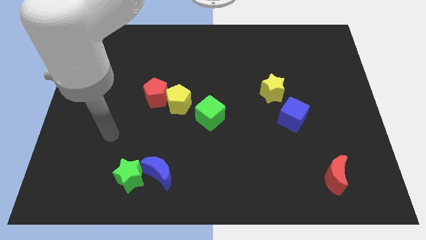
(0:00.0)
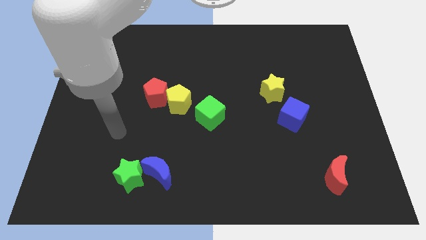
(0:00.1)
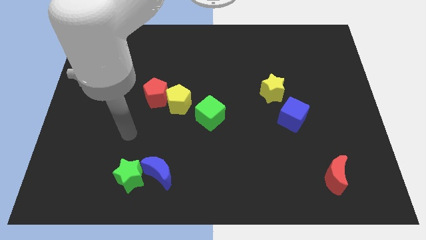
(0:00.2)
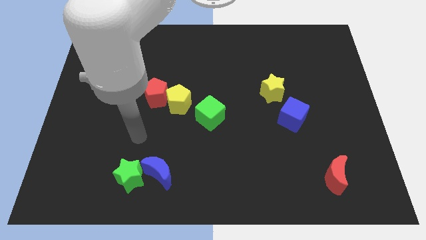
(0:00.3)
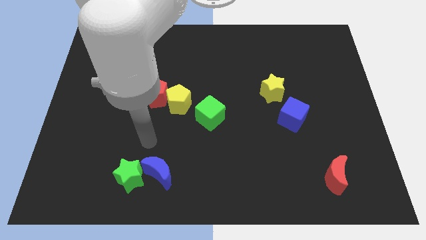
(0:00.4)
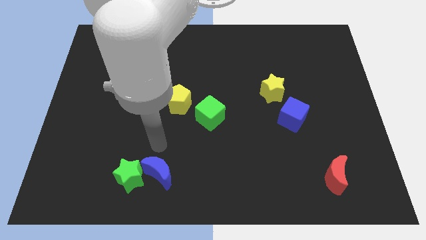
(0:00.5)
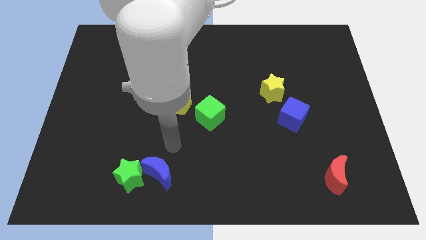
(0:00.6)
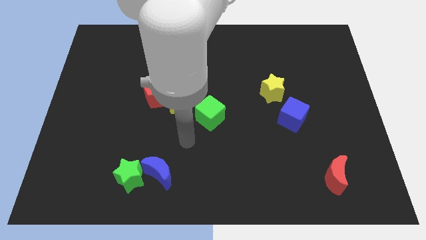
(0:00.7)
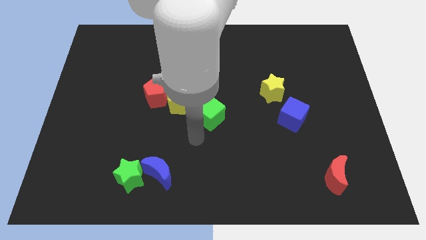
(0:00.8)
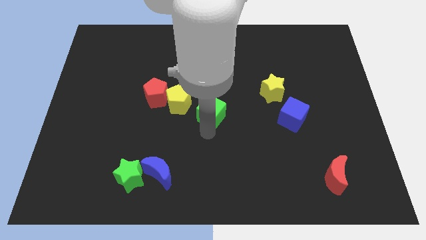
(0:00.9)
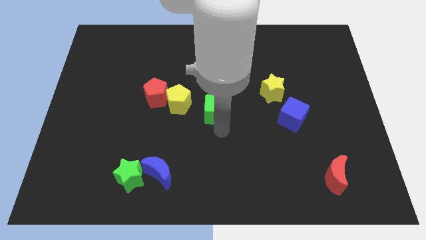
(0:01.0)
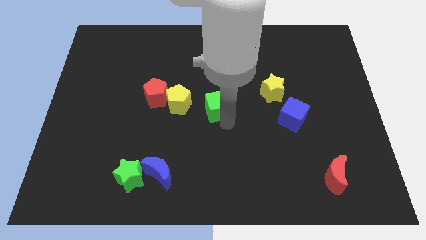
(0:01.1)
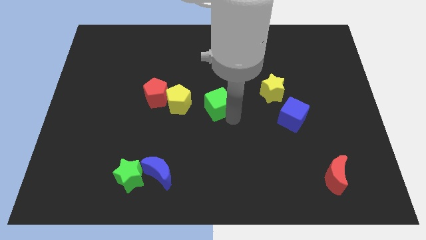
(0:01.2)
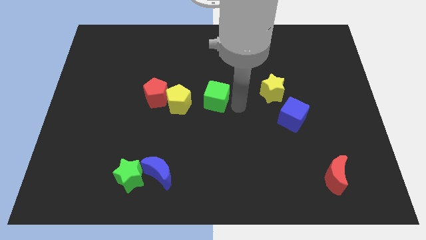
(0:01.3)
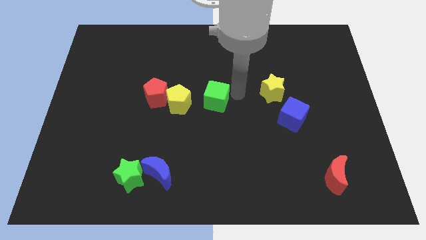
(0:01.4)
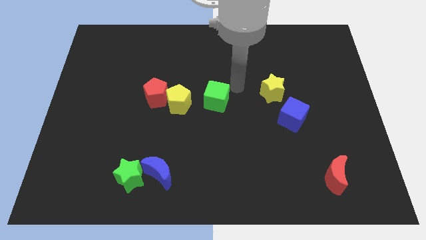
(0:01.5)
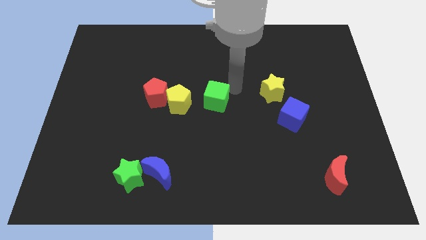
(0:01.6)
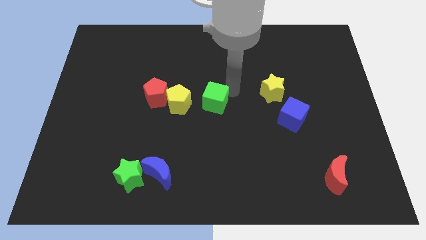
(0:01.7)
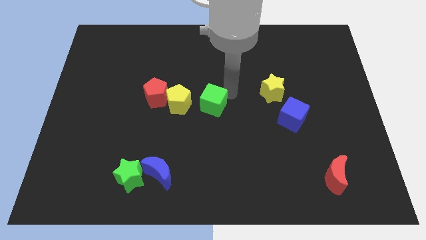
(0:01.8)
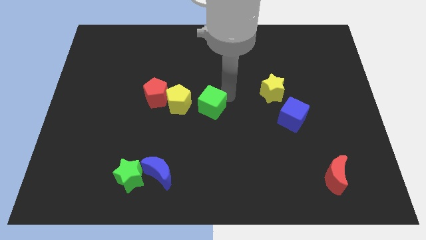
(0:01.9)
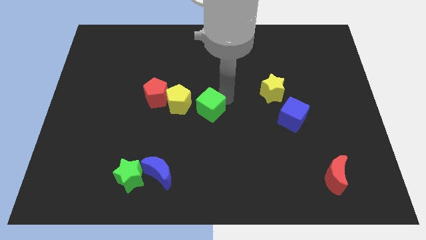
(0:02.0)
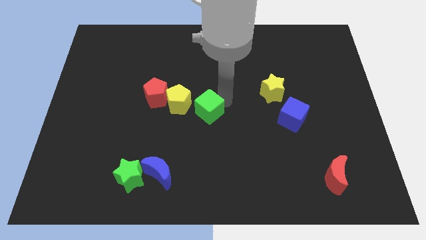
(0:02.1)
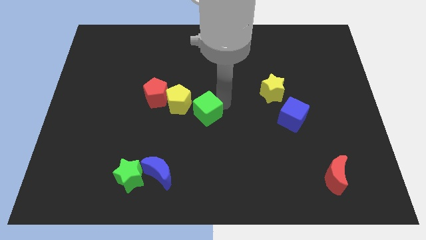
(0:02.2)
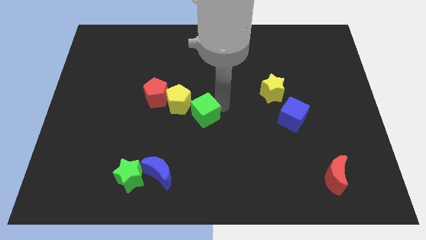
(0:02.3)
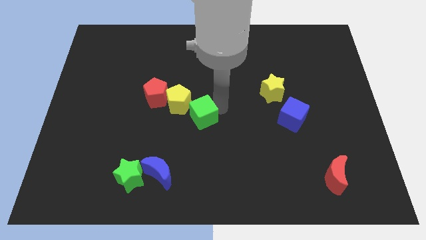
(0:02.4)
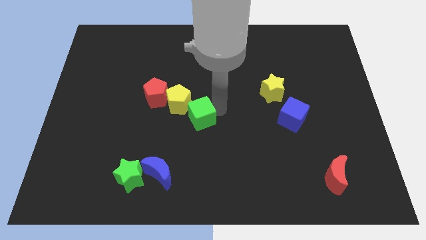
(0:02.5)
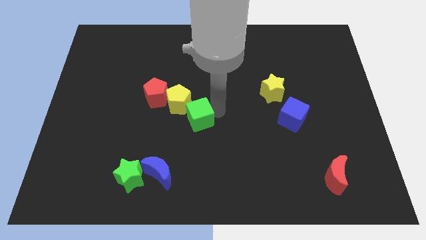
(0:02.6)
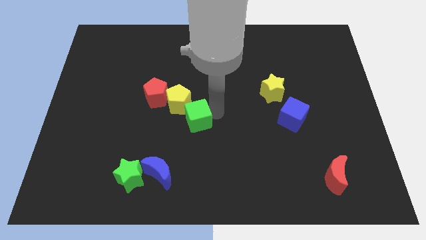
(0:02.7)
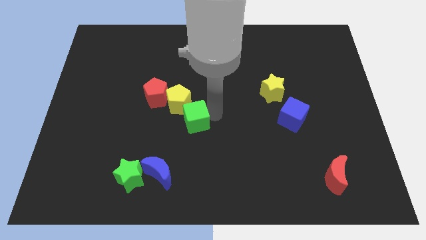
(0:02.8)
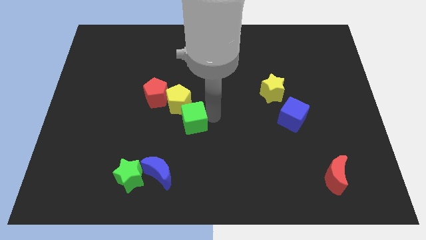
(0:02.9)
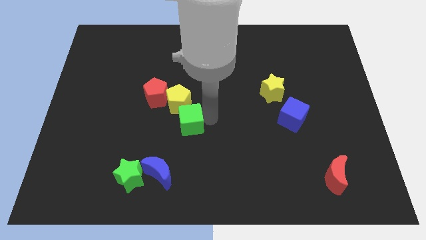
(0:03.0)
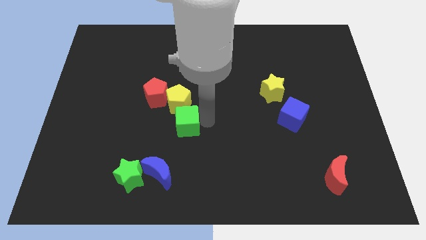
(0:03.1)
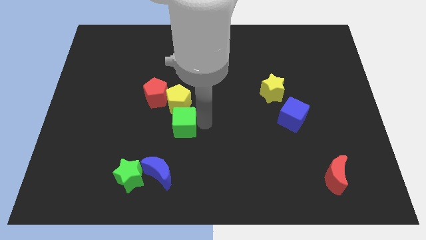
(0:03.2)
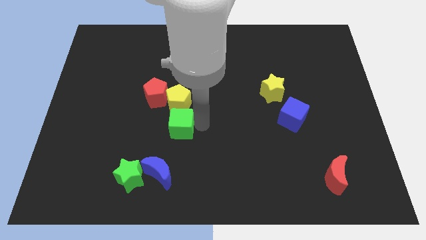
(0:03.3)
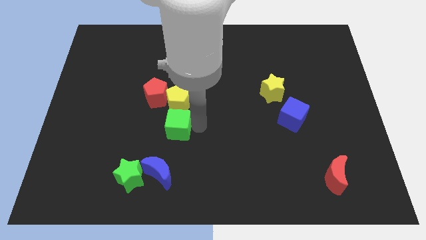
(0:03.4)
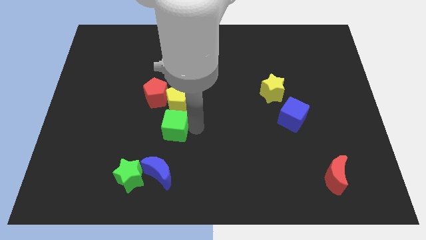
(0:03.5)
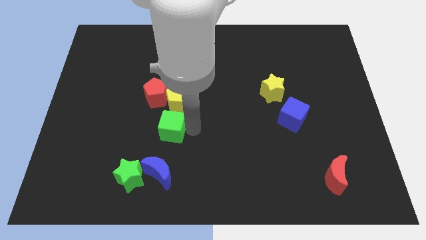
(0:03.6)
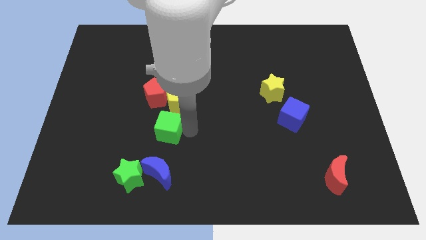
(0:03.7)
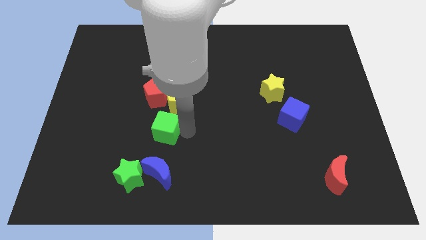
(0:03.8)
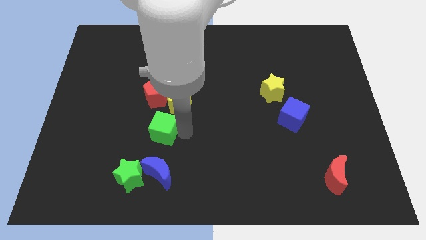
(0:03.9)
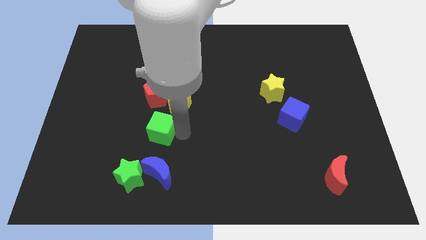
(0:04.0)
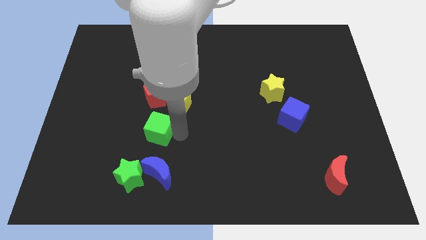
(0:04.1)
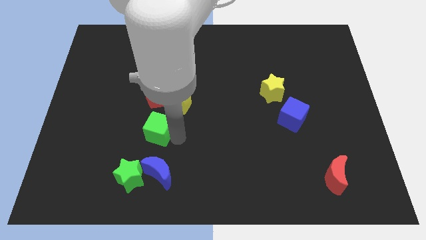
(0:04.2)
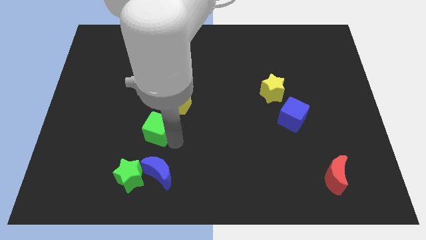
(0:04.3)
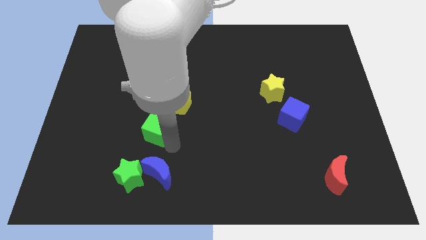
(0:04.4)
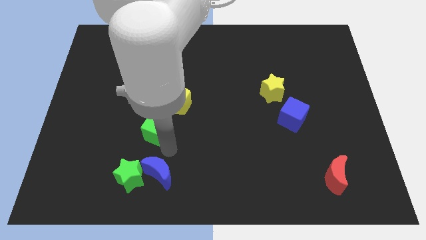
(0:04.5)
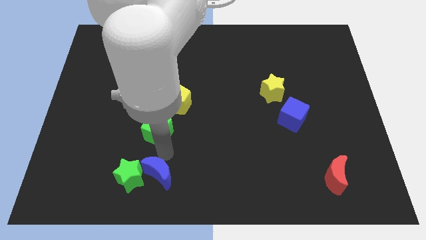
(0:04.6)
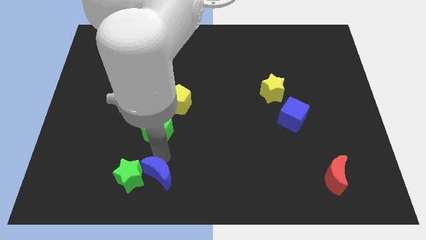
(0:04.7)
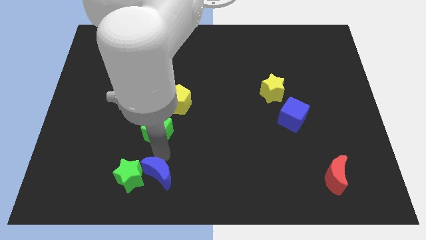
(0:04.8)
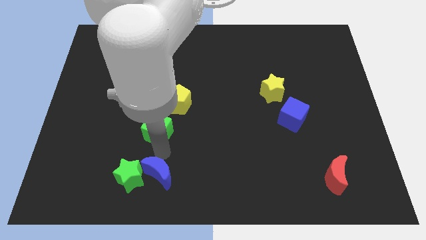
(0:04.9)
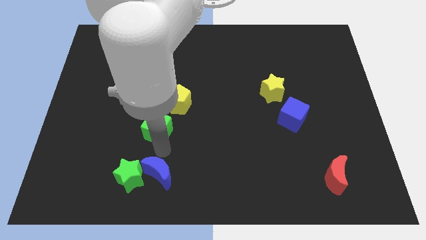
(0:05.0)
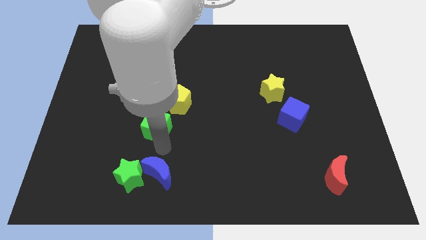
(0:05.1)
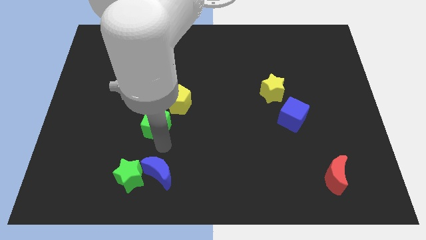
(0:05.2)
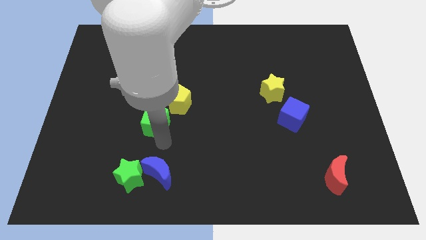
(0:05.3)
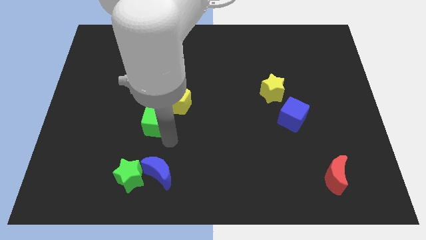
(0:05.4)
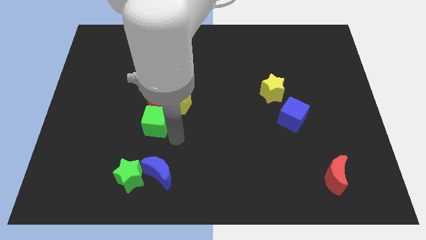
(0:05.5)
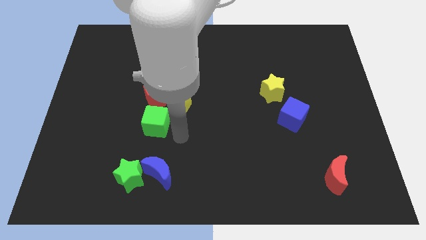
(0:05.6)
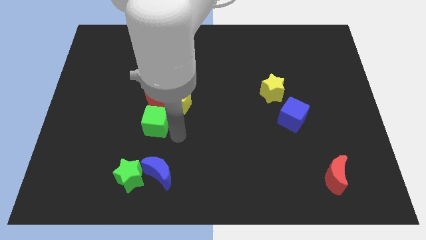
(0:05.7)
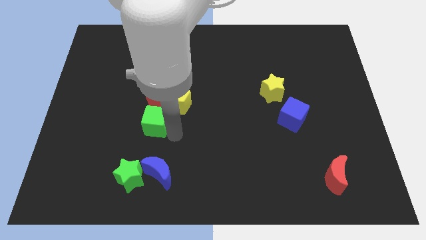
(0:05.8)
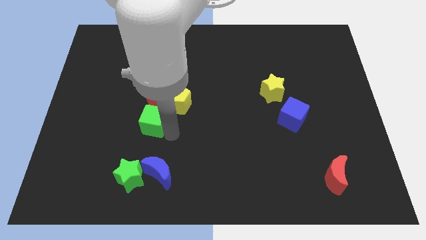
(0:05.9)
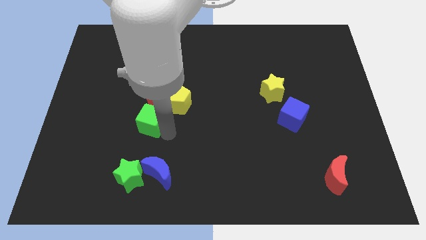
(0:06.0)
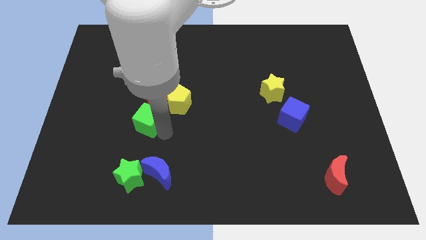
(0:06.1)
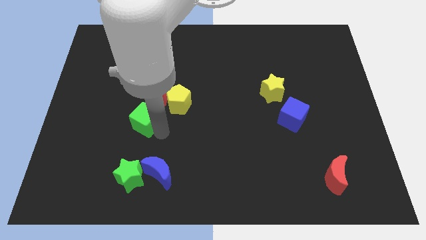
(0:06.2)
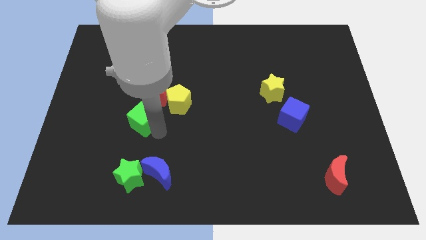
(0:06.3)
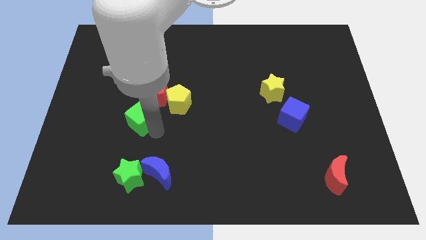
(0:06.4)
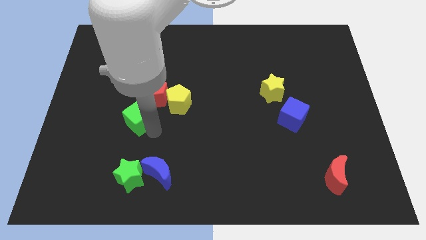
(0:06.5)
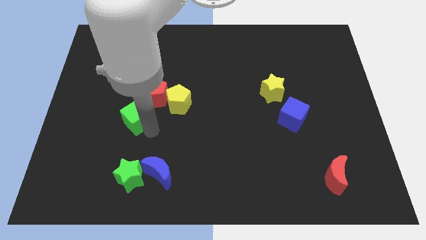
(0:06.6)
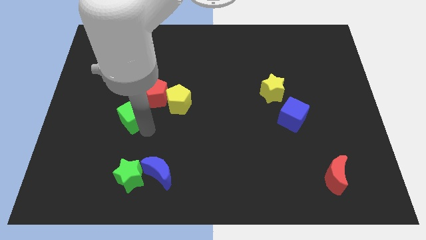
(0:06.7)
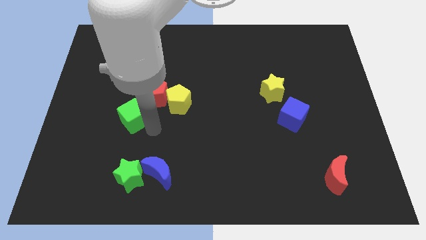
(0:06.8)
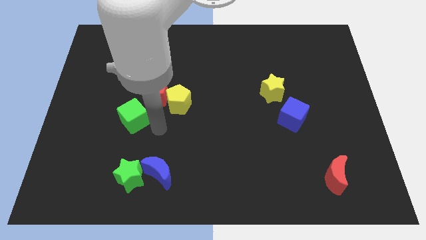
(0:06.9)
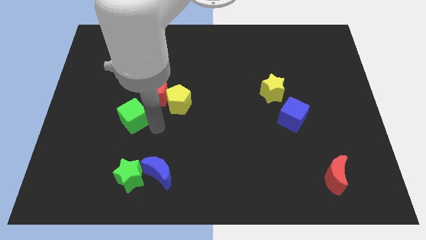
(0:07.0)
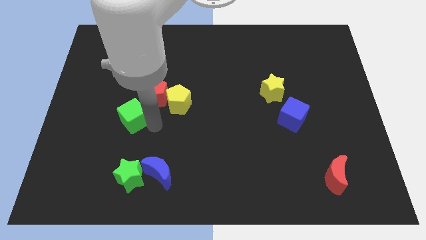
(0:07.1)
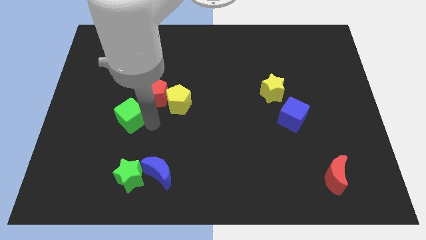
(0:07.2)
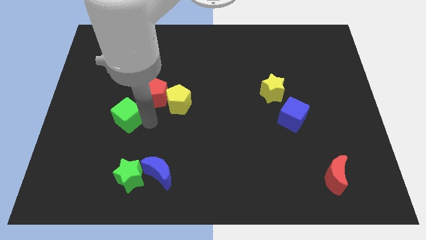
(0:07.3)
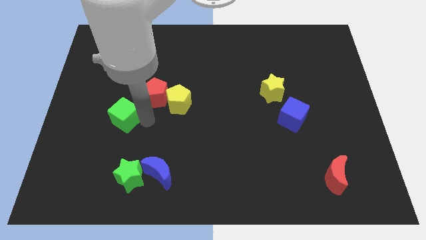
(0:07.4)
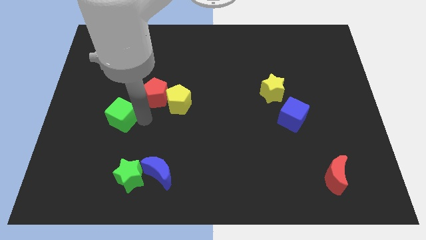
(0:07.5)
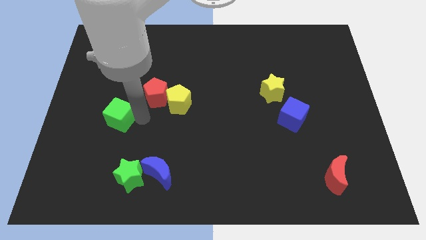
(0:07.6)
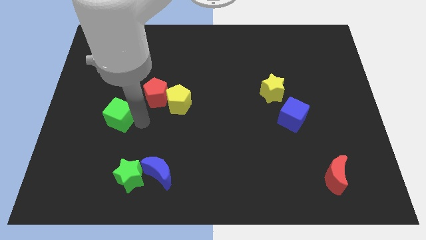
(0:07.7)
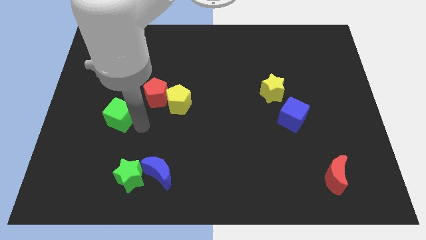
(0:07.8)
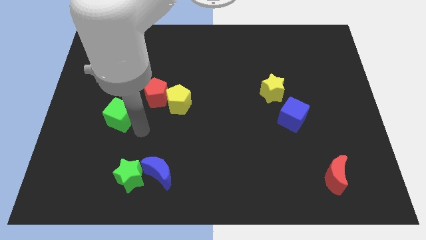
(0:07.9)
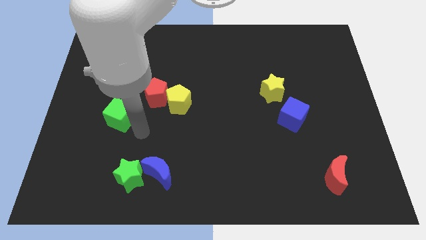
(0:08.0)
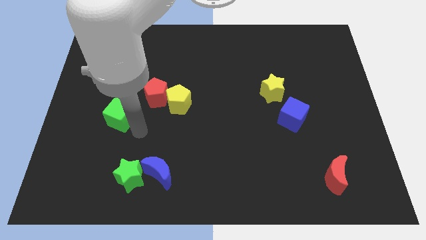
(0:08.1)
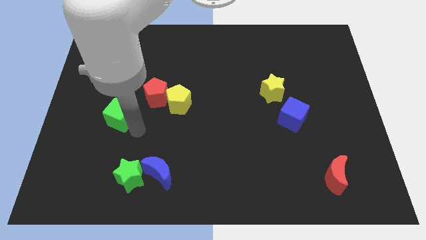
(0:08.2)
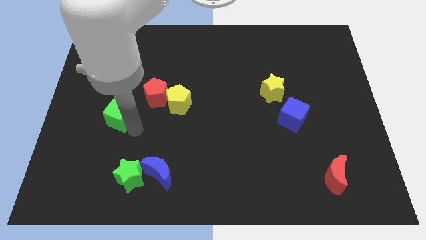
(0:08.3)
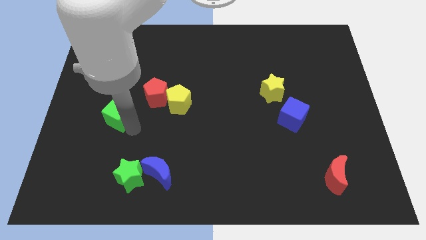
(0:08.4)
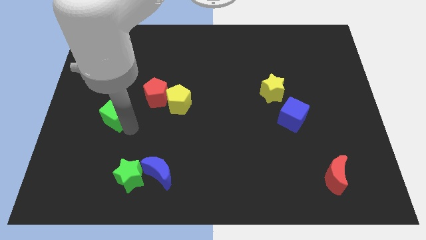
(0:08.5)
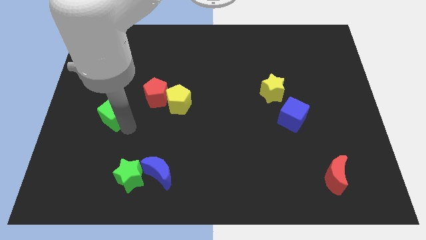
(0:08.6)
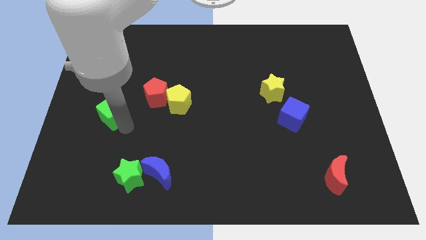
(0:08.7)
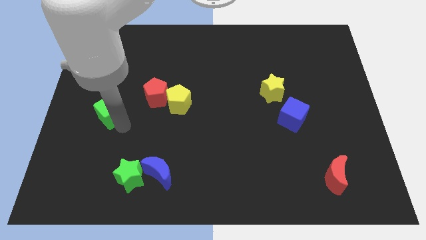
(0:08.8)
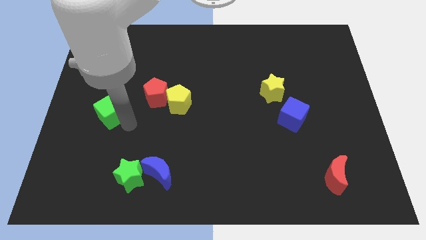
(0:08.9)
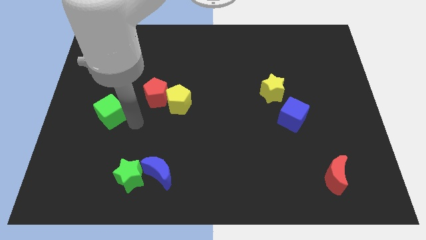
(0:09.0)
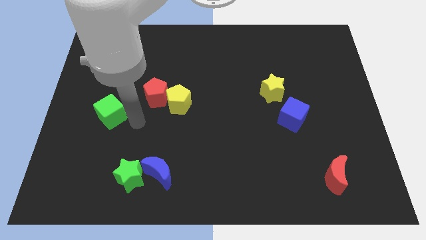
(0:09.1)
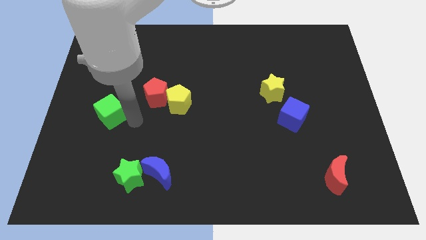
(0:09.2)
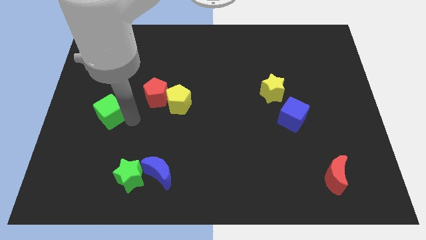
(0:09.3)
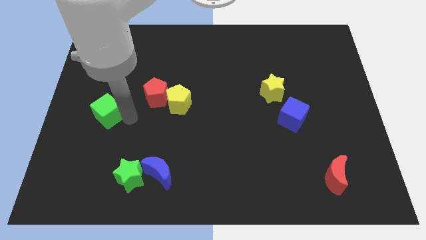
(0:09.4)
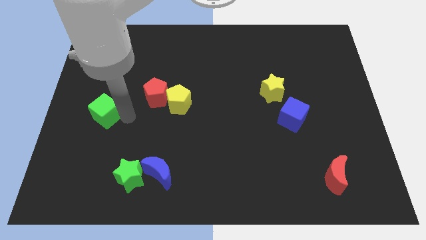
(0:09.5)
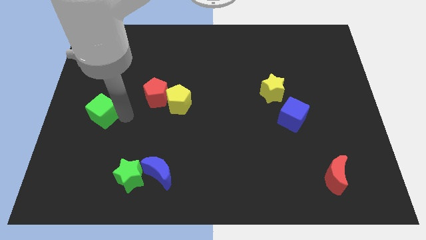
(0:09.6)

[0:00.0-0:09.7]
slide the green cube to the left side of the board
